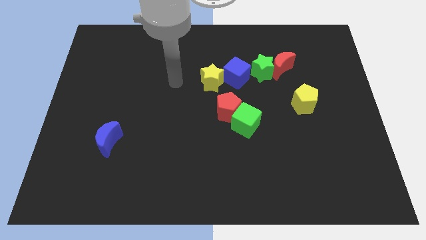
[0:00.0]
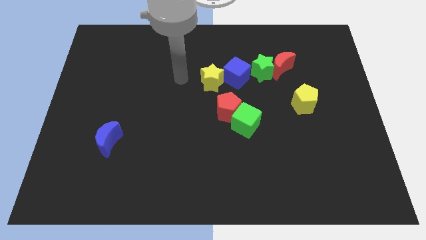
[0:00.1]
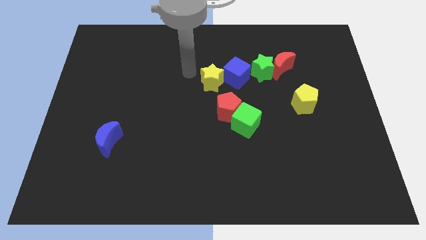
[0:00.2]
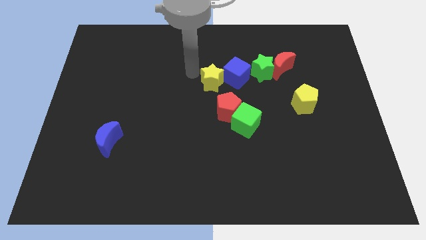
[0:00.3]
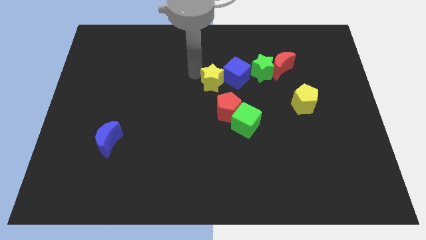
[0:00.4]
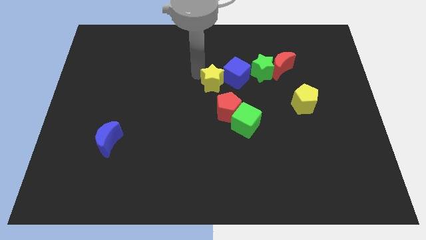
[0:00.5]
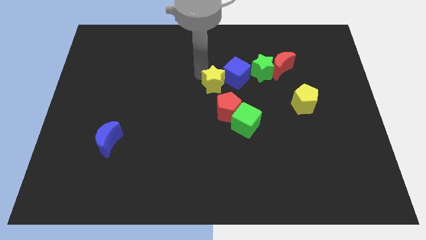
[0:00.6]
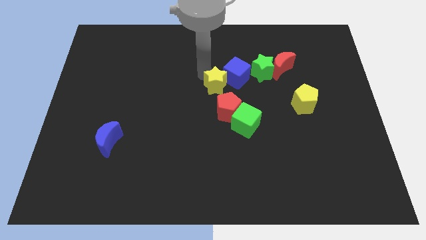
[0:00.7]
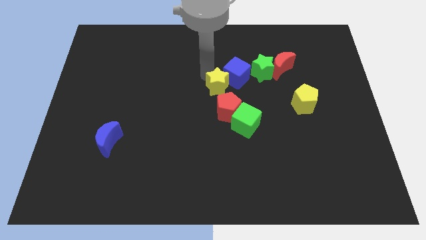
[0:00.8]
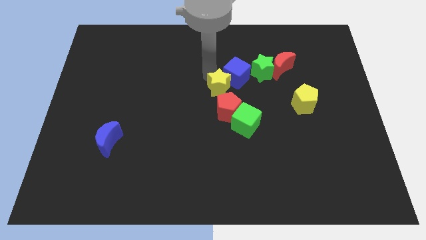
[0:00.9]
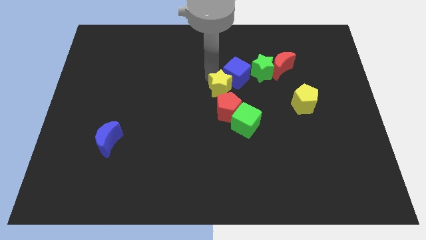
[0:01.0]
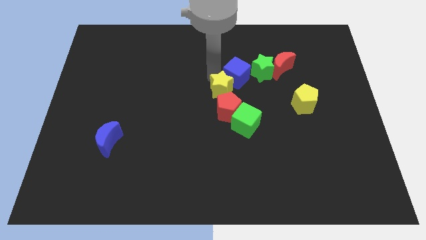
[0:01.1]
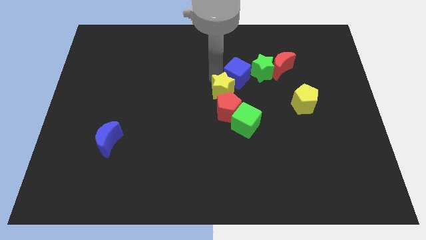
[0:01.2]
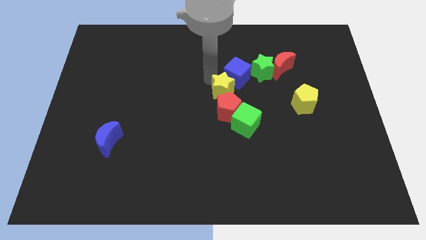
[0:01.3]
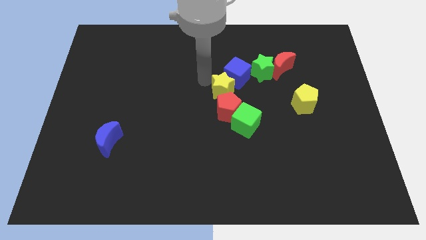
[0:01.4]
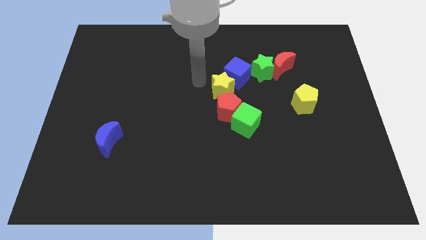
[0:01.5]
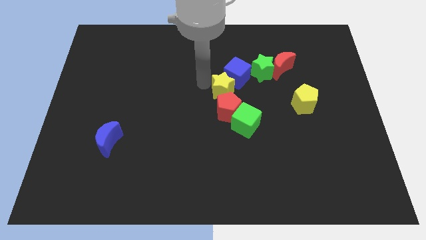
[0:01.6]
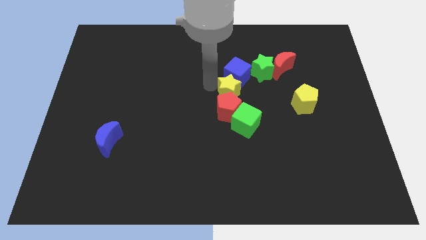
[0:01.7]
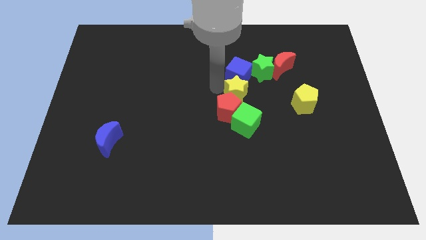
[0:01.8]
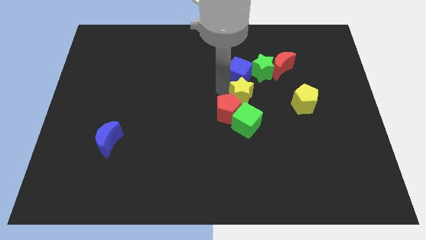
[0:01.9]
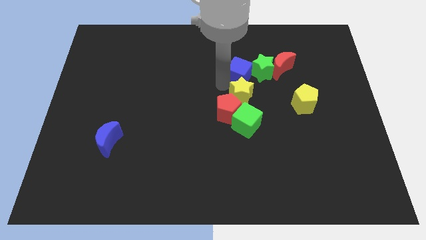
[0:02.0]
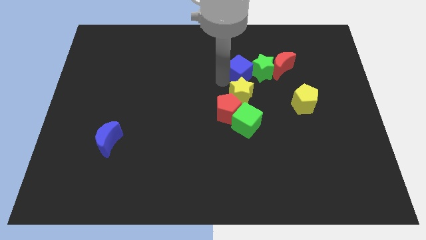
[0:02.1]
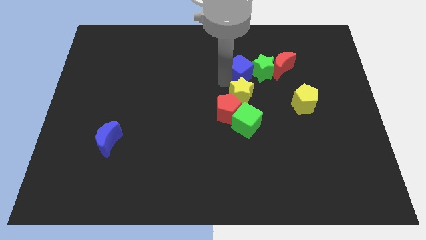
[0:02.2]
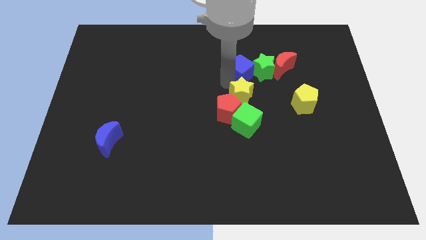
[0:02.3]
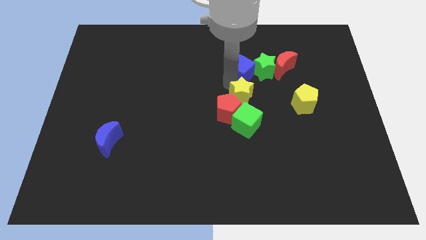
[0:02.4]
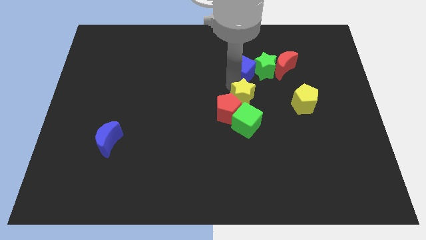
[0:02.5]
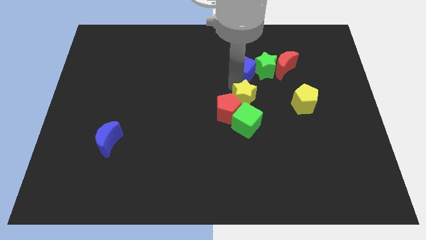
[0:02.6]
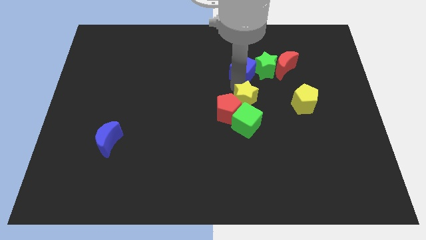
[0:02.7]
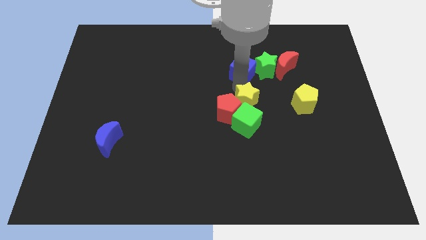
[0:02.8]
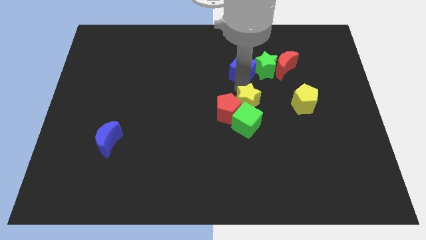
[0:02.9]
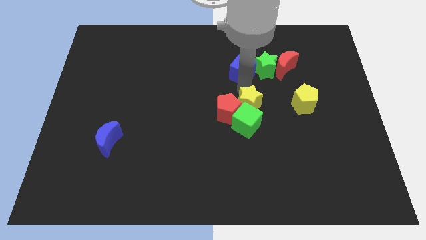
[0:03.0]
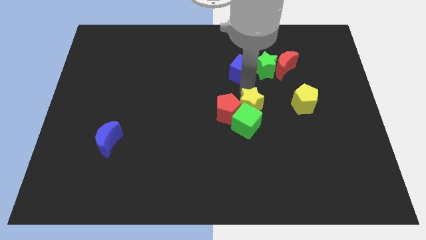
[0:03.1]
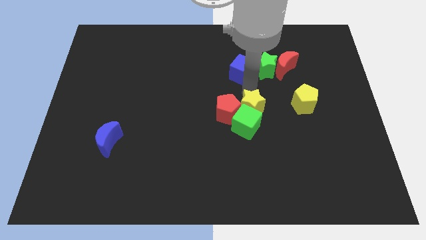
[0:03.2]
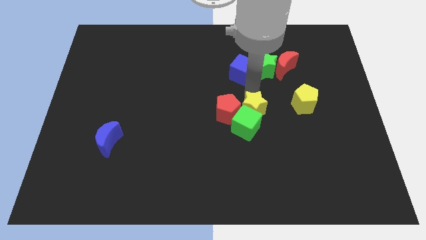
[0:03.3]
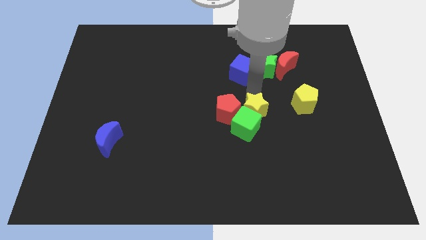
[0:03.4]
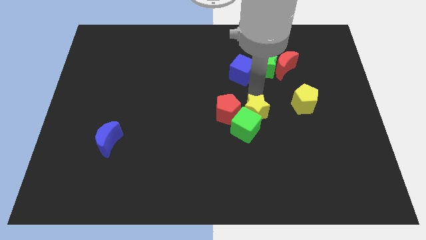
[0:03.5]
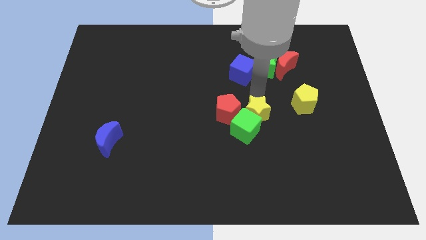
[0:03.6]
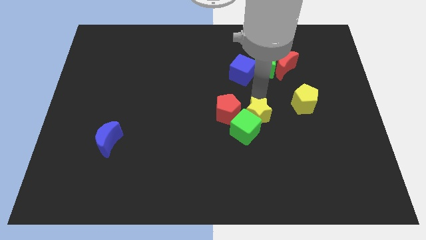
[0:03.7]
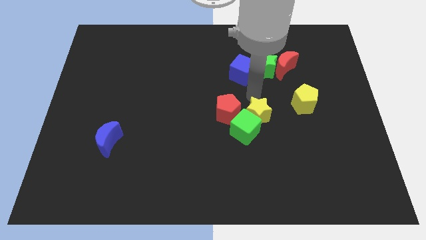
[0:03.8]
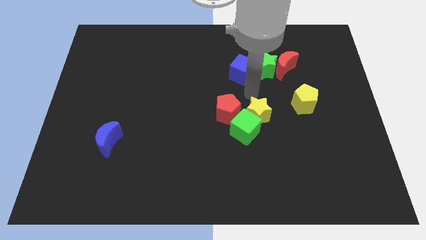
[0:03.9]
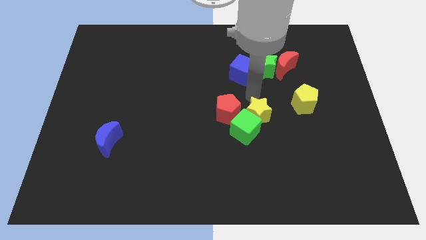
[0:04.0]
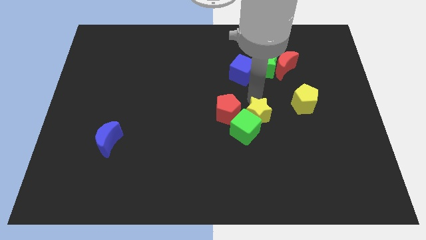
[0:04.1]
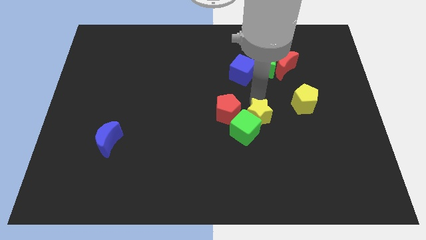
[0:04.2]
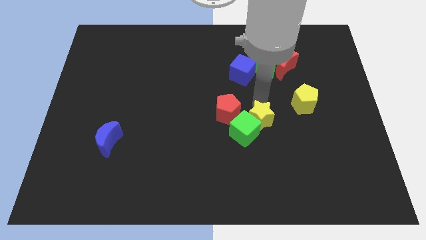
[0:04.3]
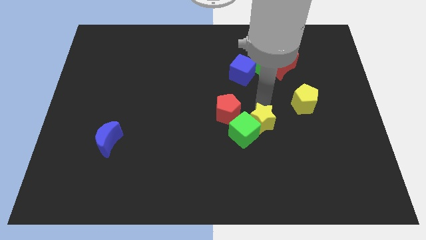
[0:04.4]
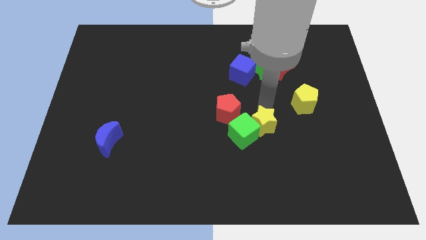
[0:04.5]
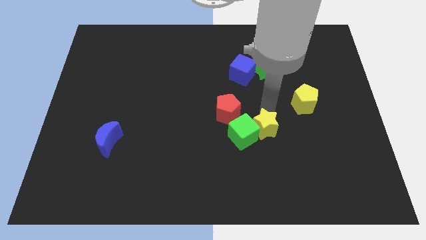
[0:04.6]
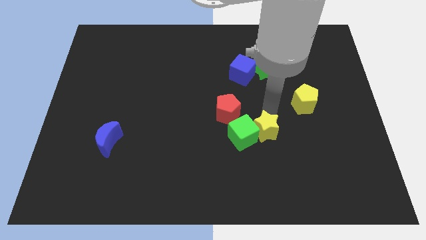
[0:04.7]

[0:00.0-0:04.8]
put the yellow star to the bottom right of the green cube

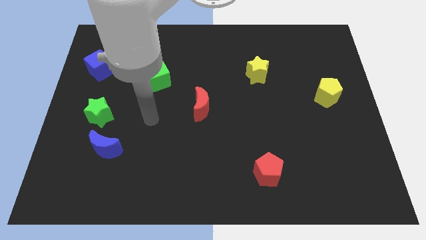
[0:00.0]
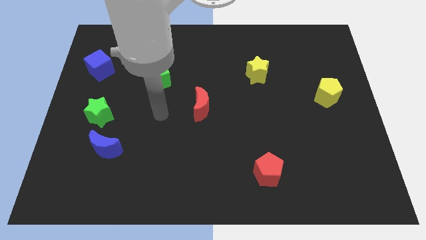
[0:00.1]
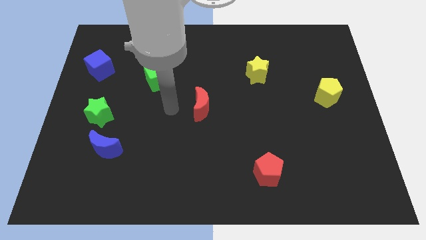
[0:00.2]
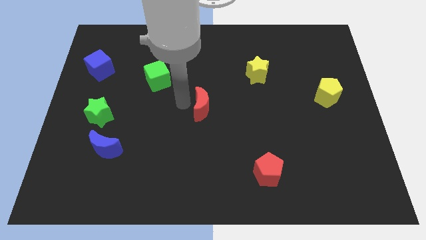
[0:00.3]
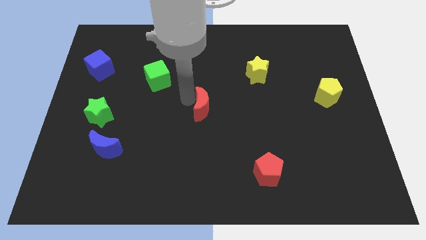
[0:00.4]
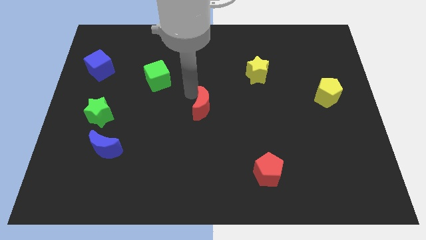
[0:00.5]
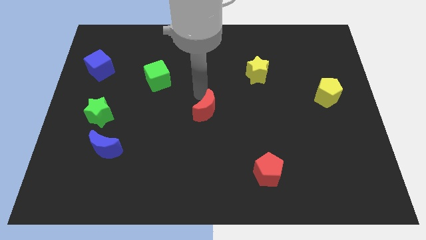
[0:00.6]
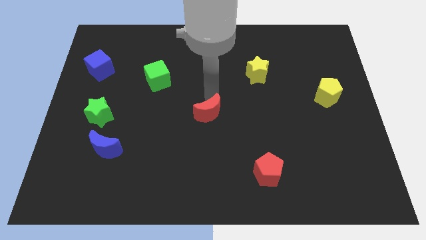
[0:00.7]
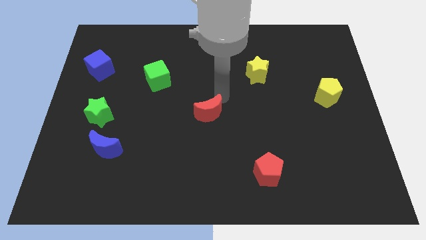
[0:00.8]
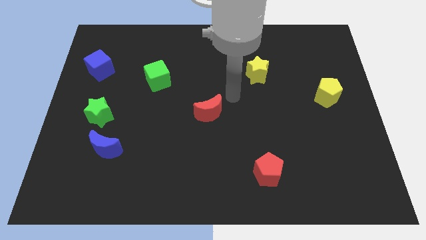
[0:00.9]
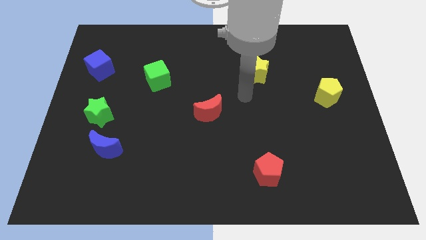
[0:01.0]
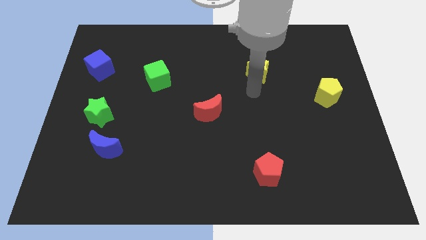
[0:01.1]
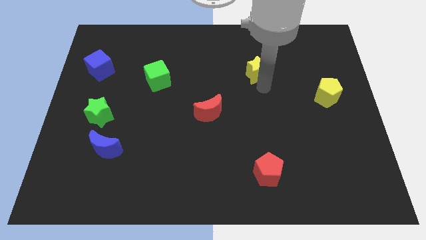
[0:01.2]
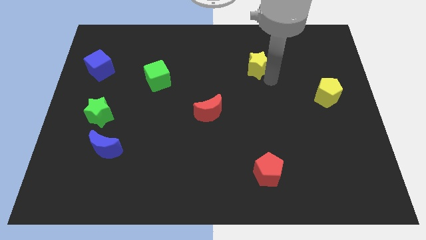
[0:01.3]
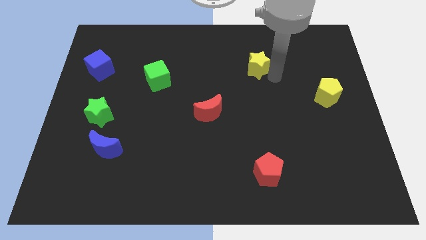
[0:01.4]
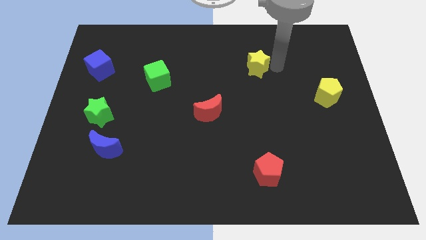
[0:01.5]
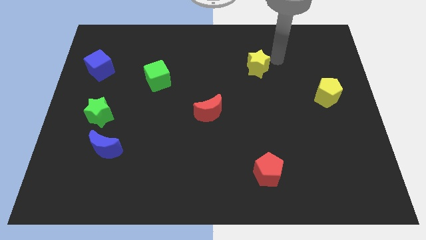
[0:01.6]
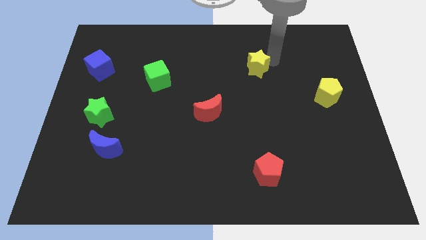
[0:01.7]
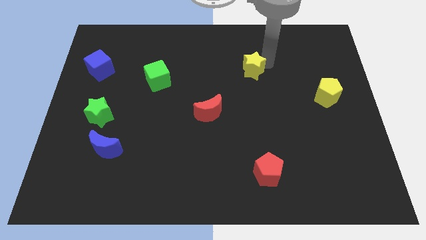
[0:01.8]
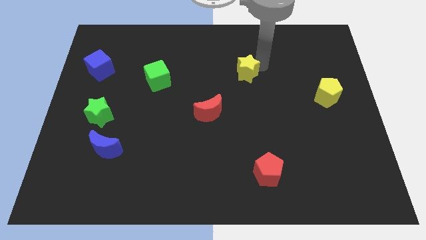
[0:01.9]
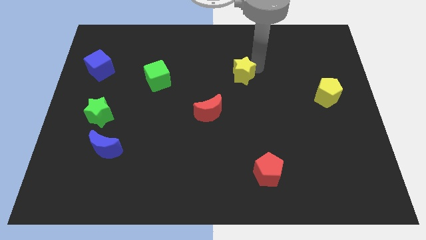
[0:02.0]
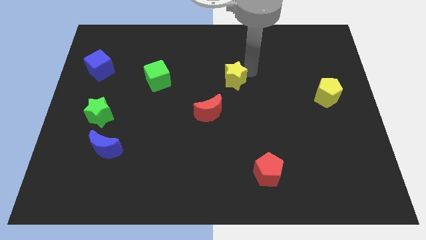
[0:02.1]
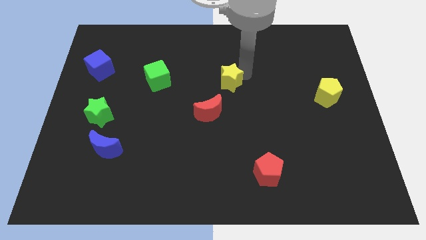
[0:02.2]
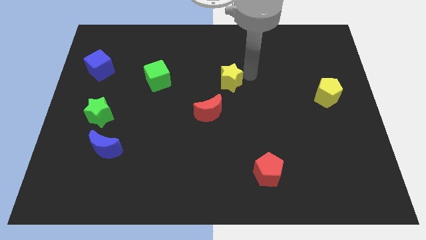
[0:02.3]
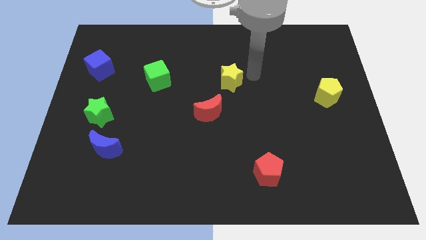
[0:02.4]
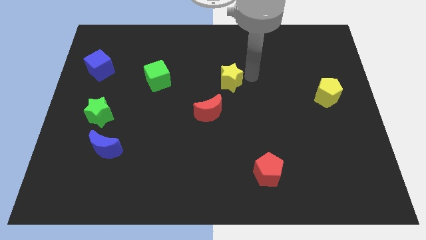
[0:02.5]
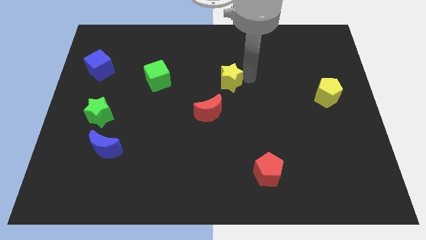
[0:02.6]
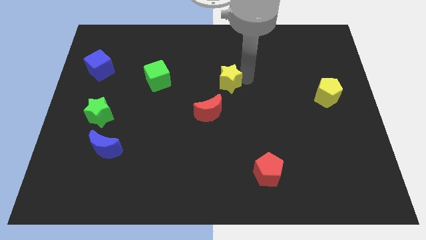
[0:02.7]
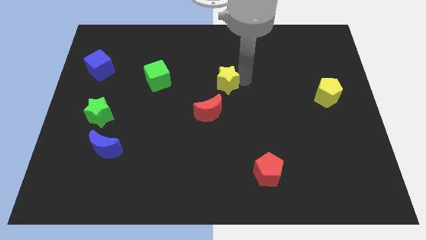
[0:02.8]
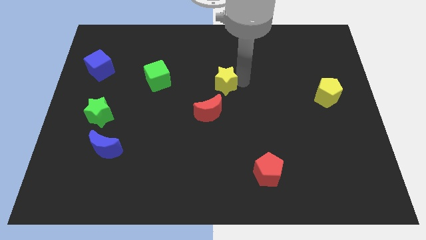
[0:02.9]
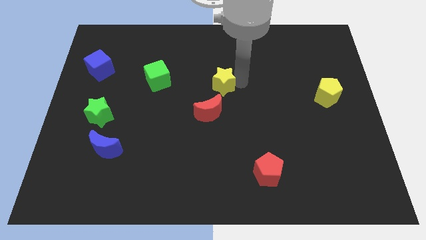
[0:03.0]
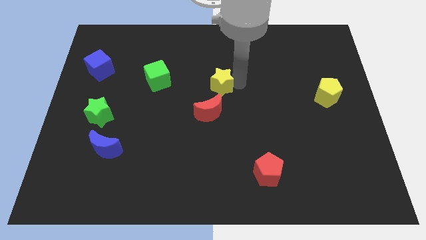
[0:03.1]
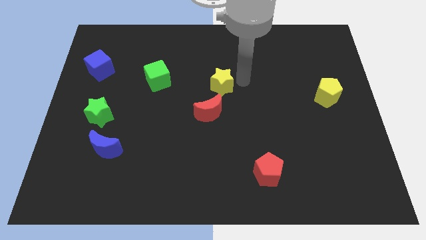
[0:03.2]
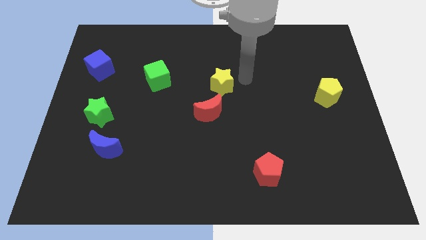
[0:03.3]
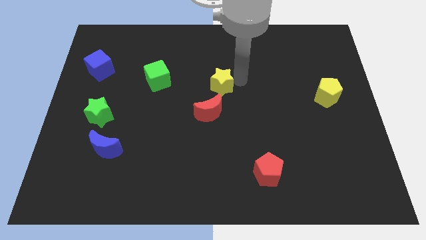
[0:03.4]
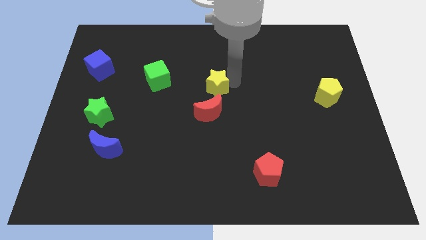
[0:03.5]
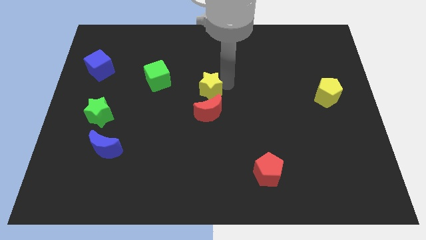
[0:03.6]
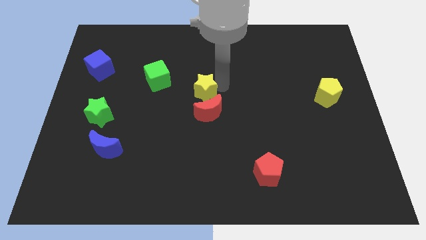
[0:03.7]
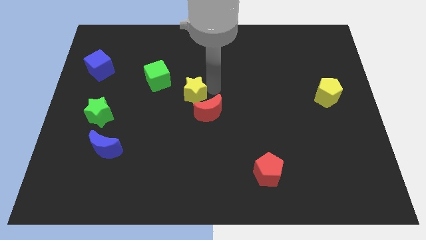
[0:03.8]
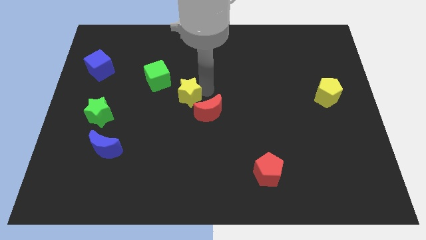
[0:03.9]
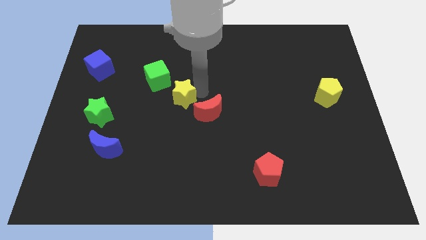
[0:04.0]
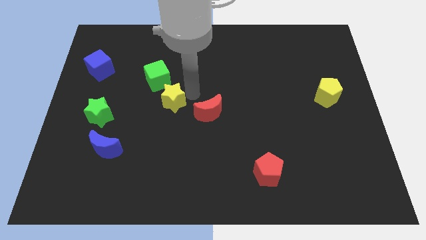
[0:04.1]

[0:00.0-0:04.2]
put the yellow star to the bottom of the green cube
